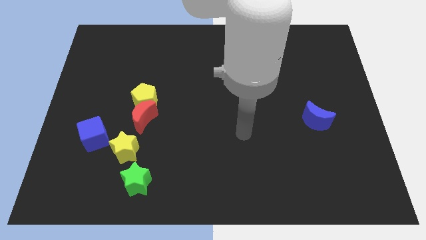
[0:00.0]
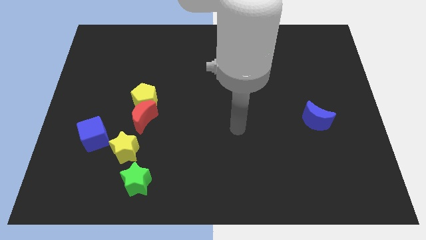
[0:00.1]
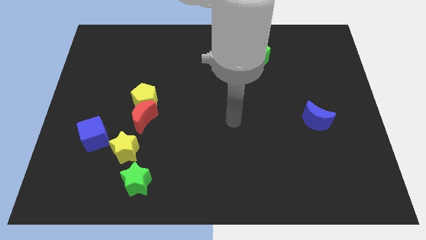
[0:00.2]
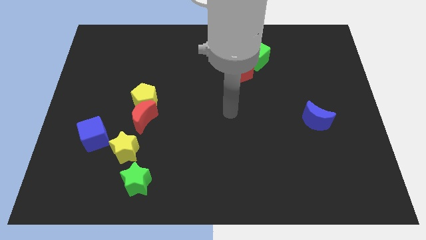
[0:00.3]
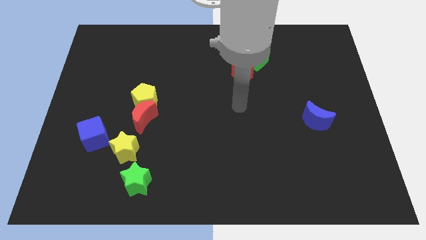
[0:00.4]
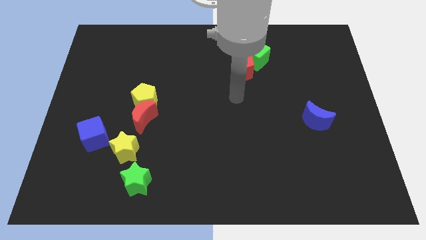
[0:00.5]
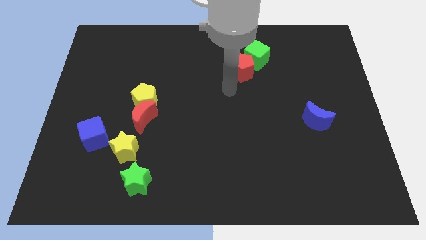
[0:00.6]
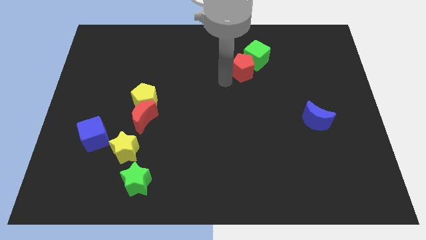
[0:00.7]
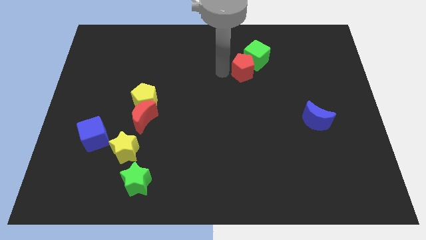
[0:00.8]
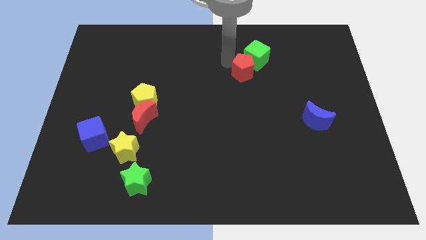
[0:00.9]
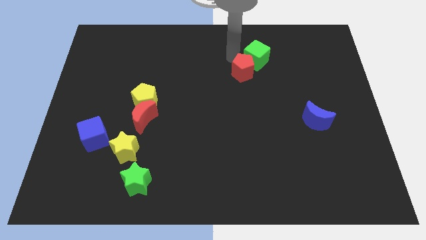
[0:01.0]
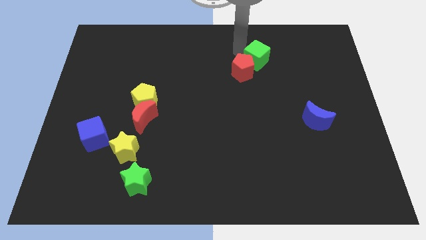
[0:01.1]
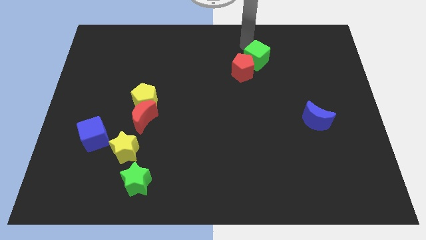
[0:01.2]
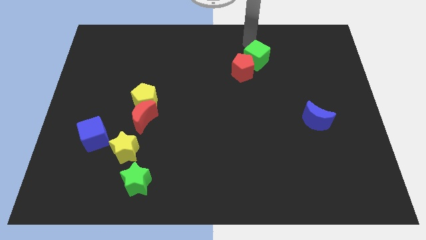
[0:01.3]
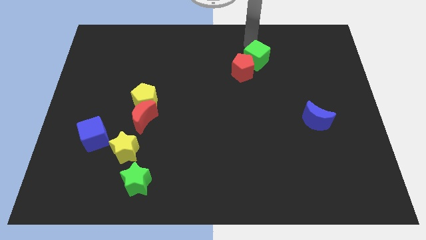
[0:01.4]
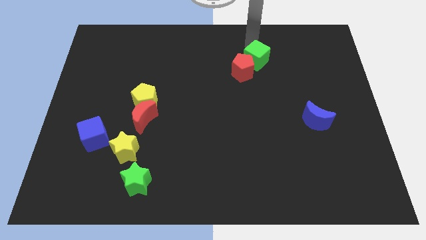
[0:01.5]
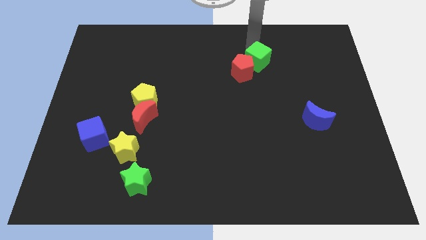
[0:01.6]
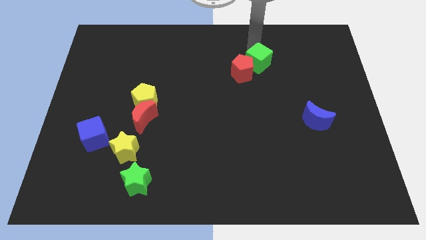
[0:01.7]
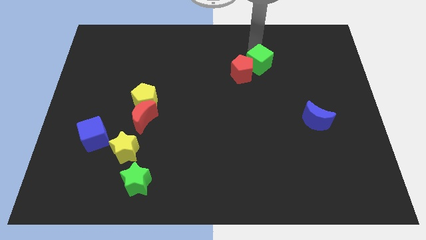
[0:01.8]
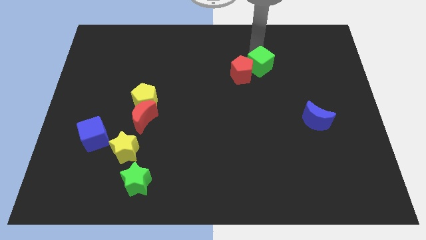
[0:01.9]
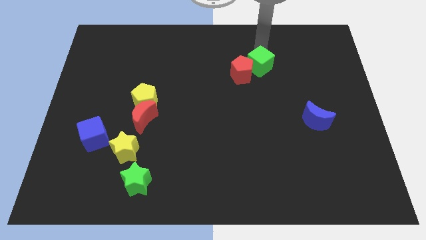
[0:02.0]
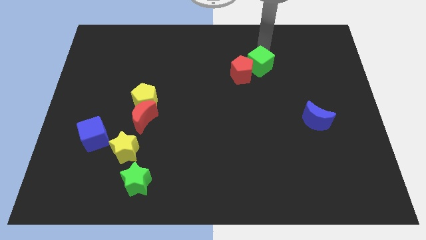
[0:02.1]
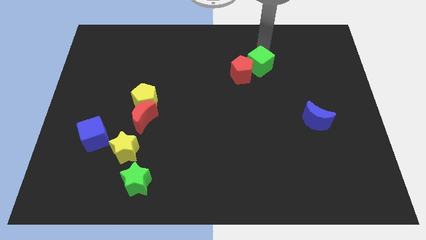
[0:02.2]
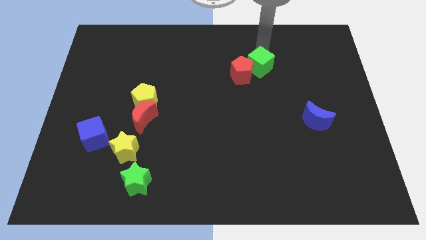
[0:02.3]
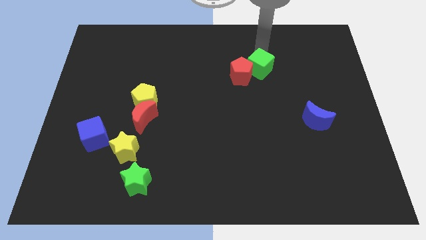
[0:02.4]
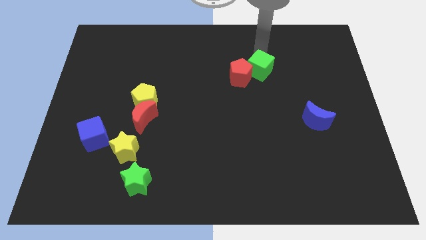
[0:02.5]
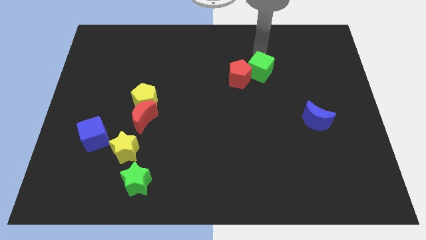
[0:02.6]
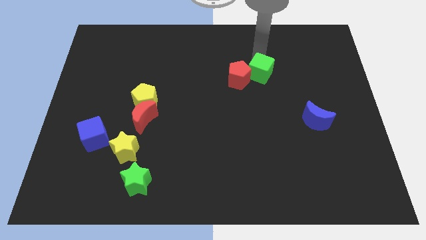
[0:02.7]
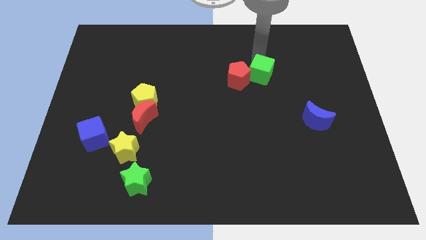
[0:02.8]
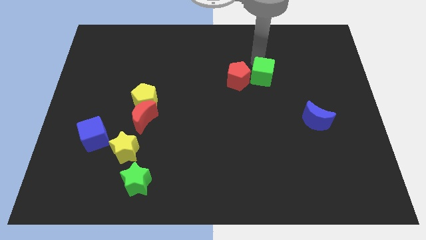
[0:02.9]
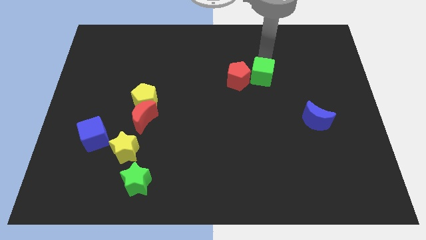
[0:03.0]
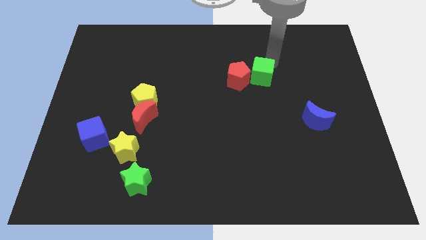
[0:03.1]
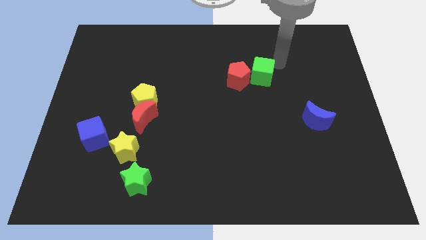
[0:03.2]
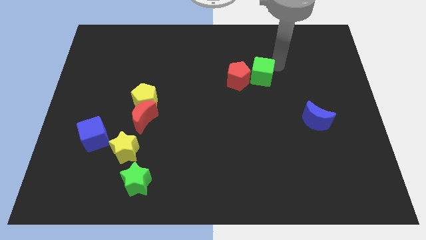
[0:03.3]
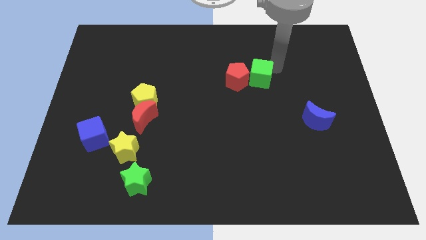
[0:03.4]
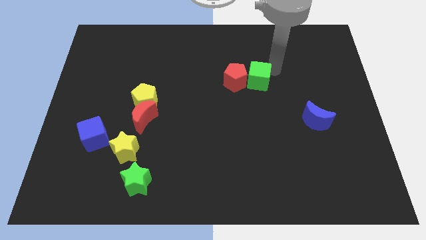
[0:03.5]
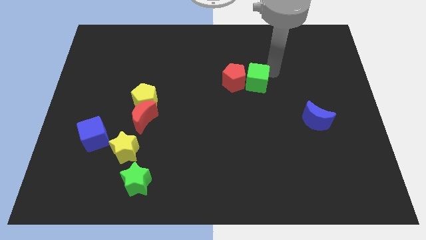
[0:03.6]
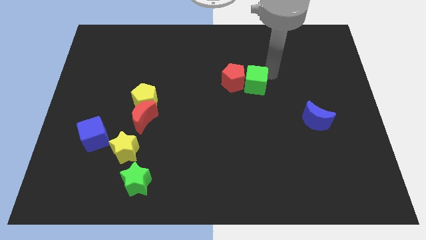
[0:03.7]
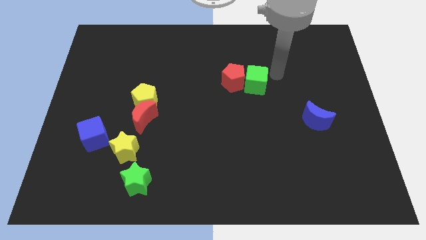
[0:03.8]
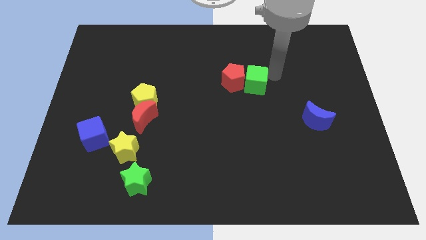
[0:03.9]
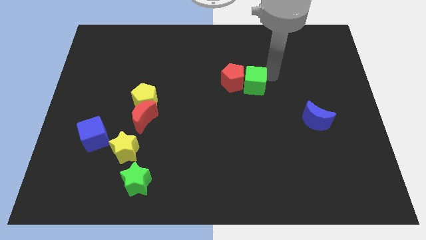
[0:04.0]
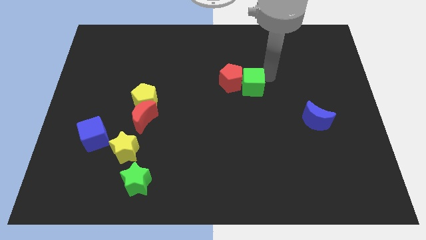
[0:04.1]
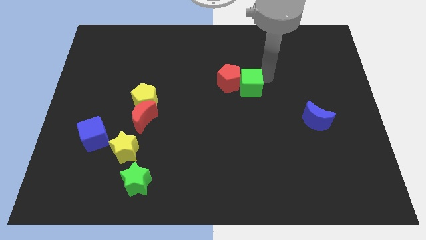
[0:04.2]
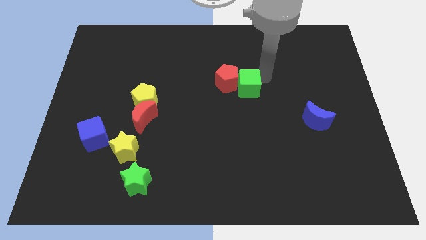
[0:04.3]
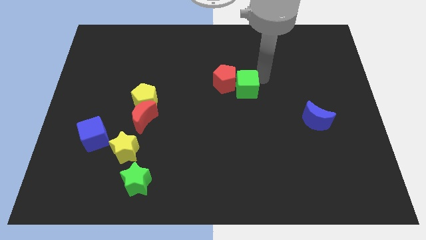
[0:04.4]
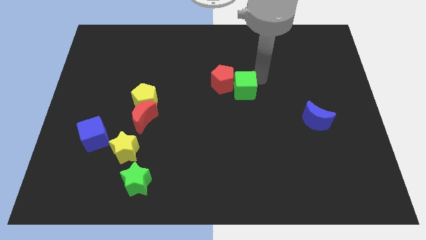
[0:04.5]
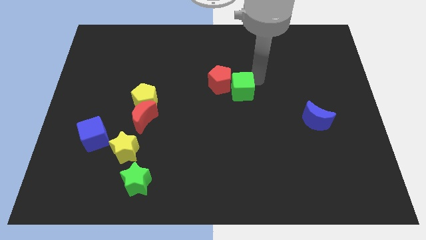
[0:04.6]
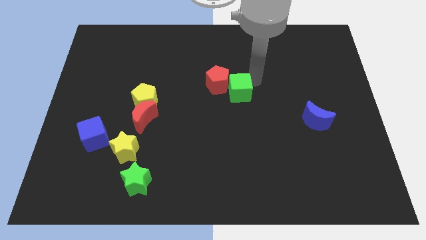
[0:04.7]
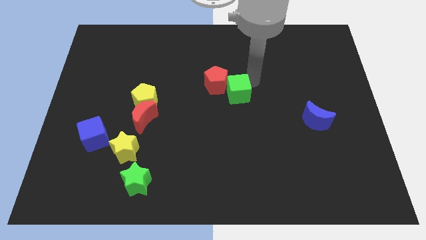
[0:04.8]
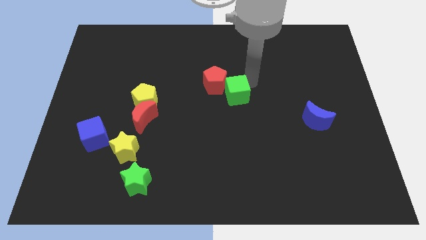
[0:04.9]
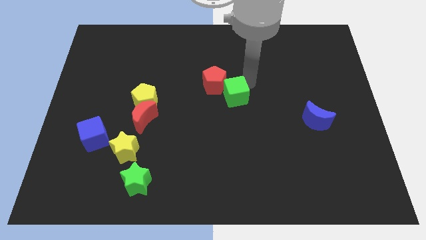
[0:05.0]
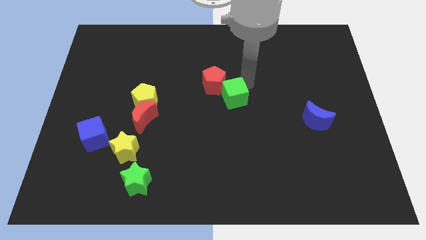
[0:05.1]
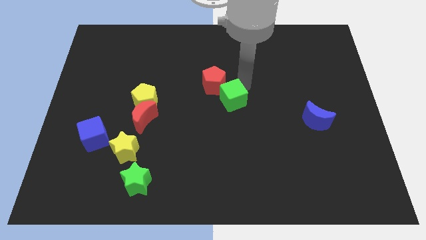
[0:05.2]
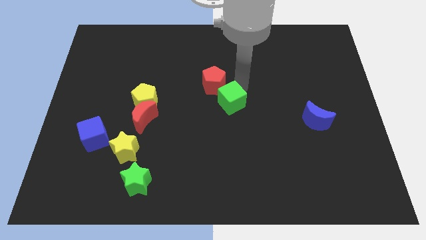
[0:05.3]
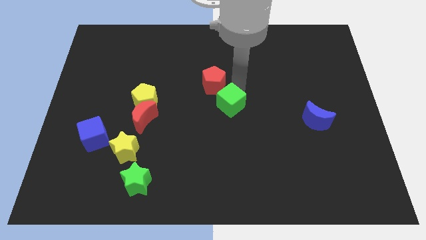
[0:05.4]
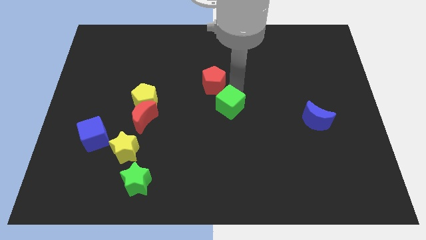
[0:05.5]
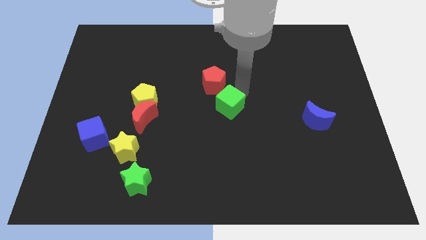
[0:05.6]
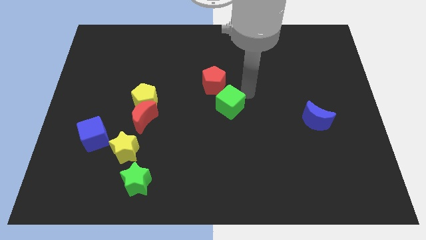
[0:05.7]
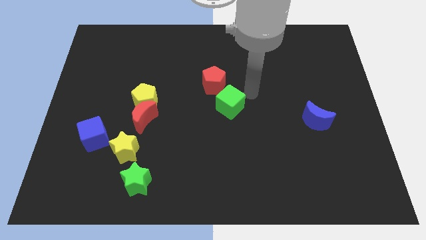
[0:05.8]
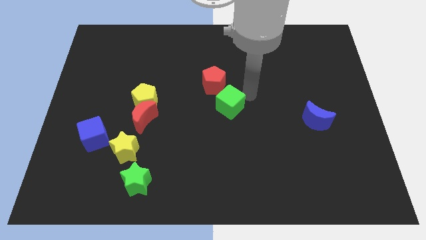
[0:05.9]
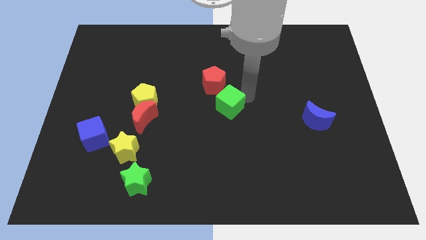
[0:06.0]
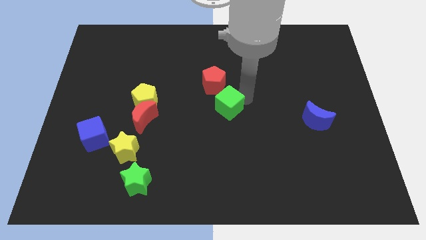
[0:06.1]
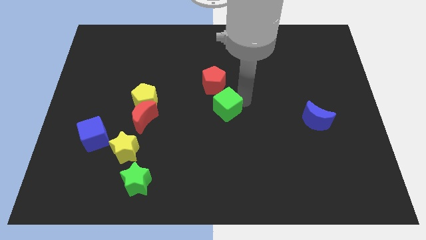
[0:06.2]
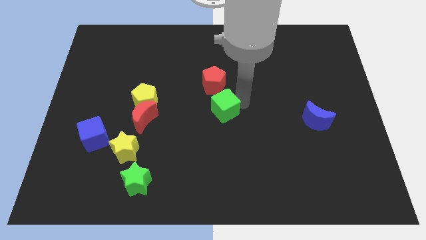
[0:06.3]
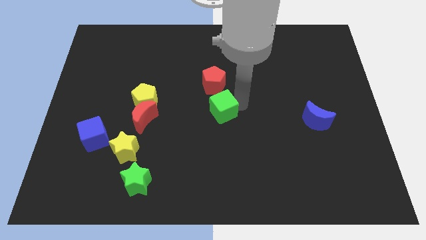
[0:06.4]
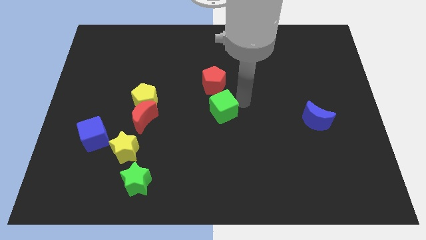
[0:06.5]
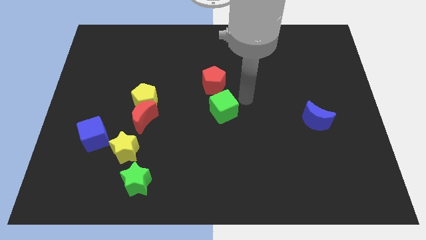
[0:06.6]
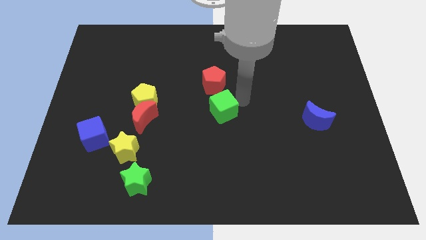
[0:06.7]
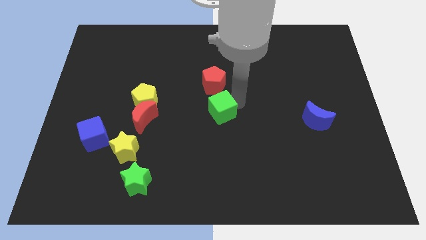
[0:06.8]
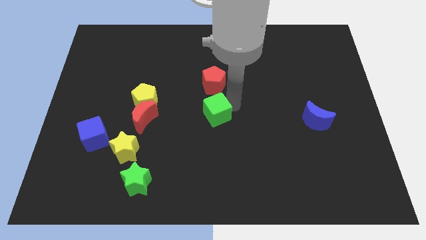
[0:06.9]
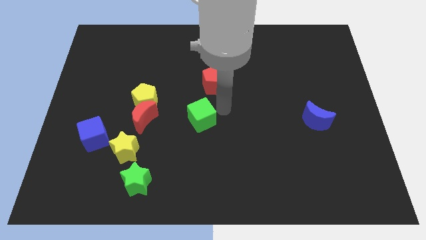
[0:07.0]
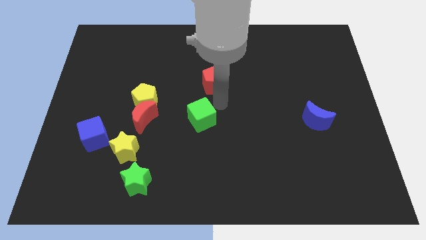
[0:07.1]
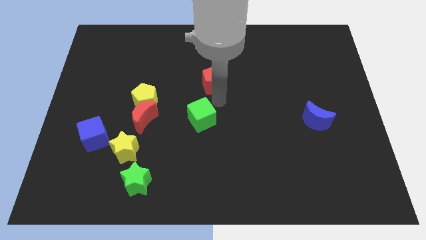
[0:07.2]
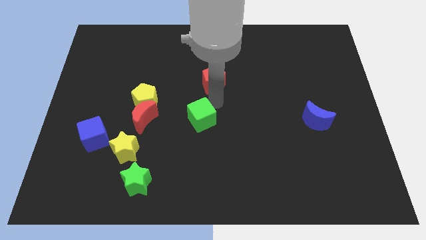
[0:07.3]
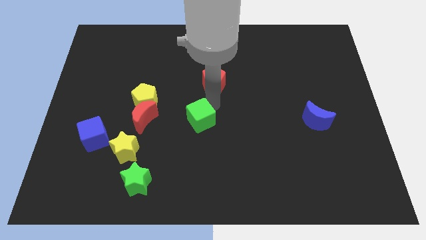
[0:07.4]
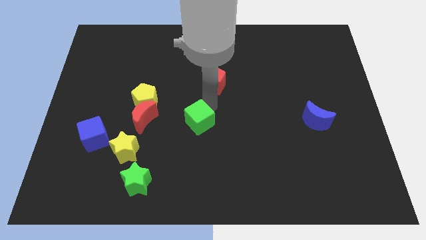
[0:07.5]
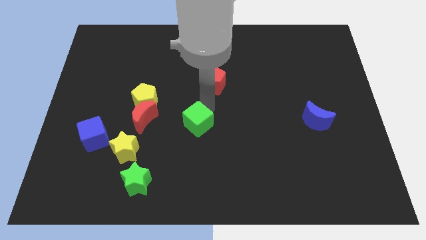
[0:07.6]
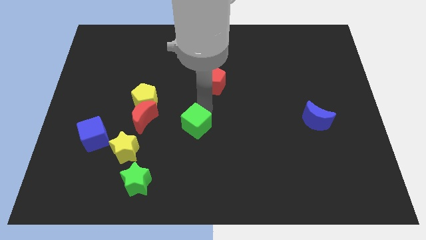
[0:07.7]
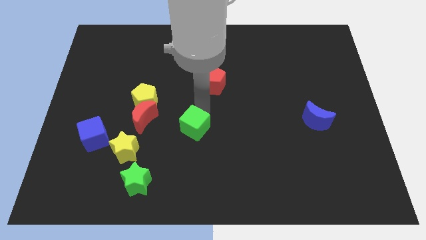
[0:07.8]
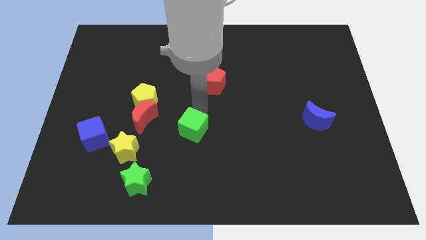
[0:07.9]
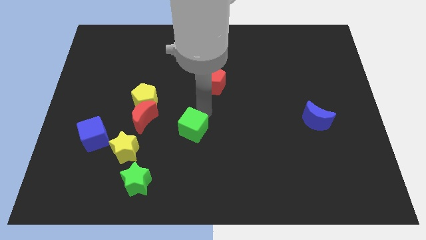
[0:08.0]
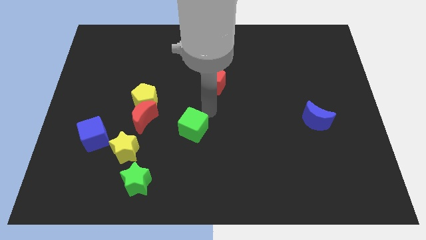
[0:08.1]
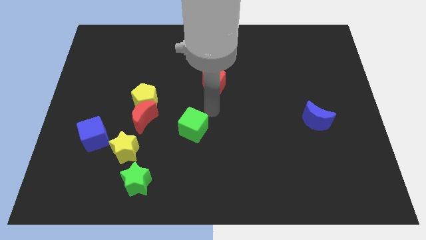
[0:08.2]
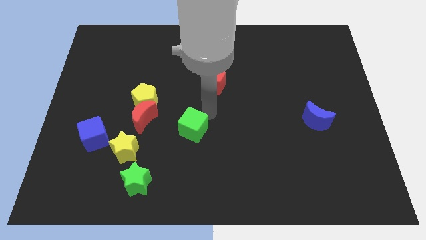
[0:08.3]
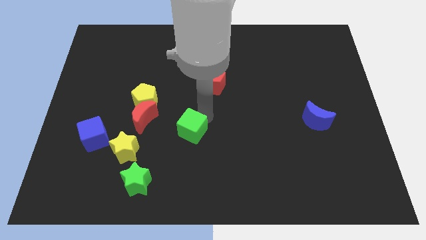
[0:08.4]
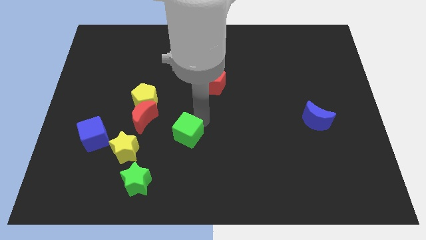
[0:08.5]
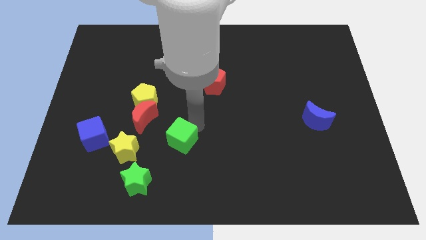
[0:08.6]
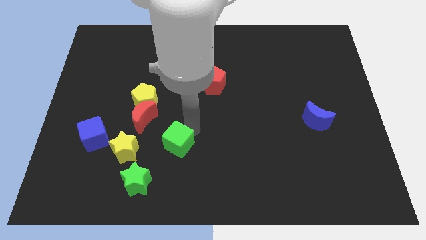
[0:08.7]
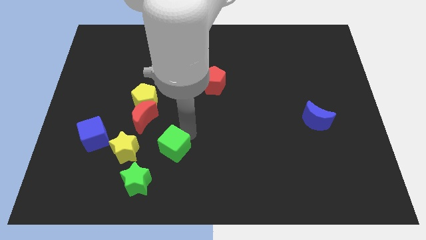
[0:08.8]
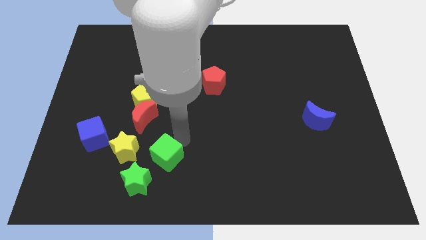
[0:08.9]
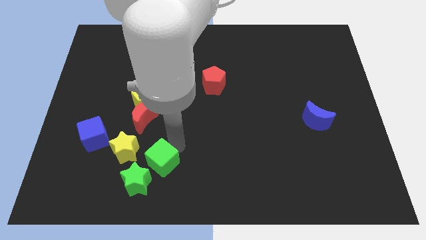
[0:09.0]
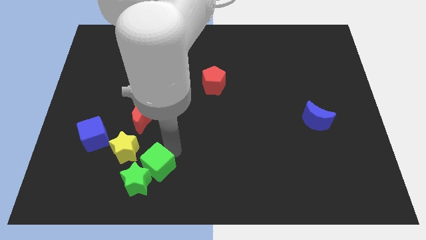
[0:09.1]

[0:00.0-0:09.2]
put the green cube next to the green star
